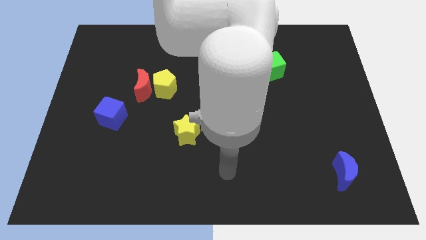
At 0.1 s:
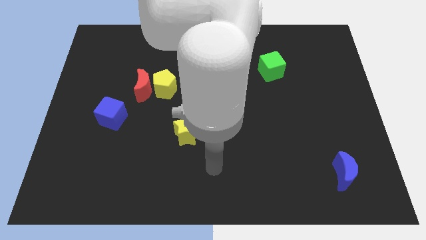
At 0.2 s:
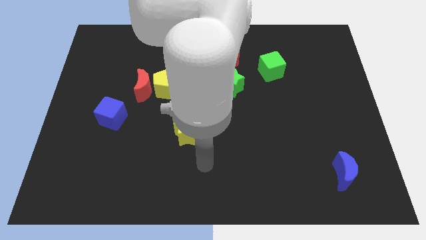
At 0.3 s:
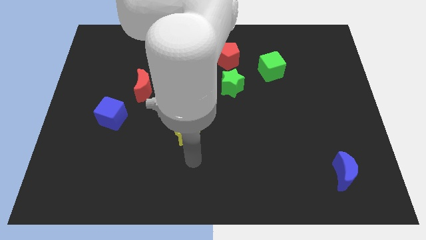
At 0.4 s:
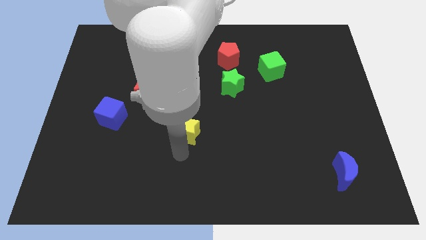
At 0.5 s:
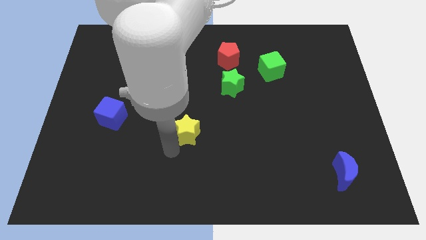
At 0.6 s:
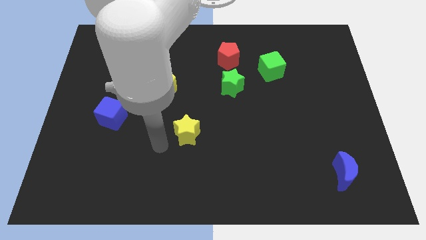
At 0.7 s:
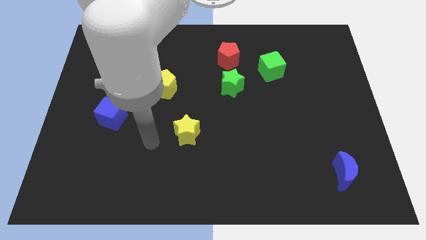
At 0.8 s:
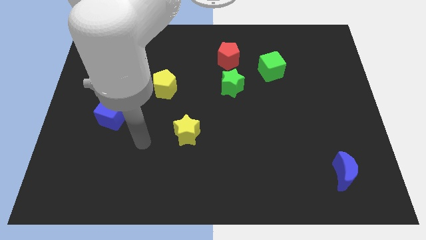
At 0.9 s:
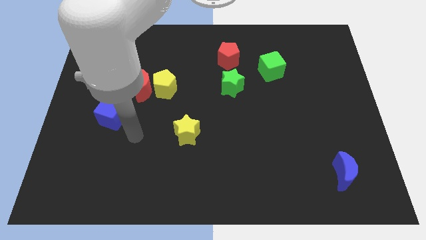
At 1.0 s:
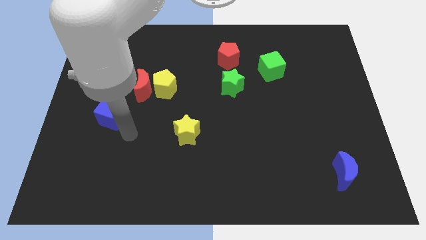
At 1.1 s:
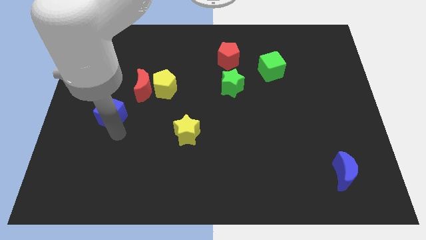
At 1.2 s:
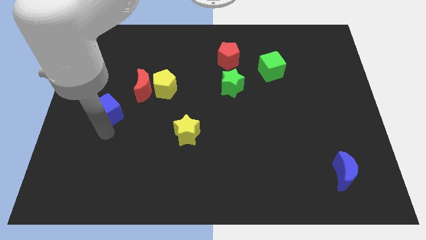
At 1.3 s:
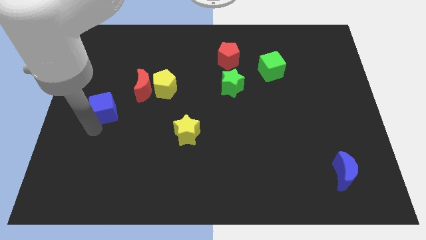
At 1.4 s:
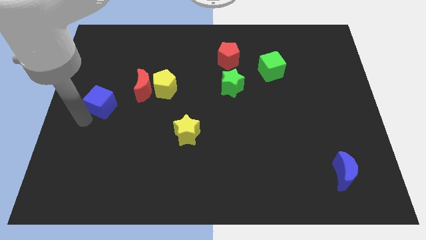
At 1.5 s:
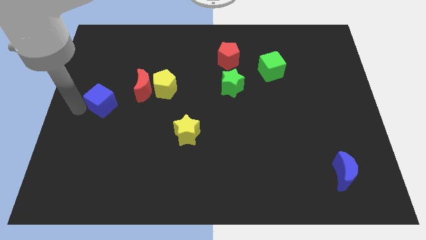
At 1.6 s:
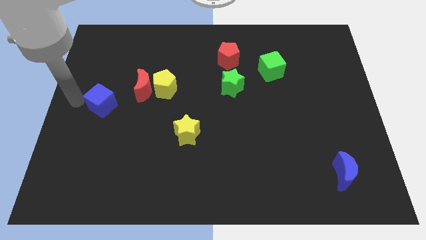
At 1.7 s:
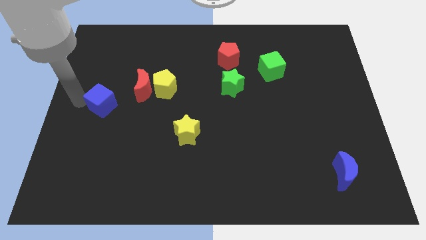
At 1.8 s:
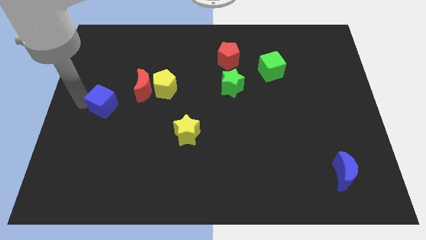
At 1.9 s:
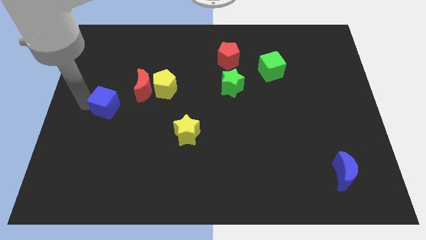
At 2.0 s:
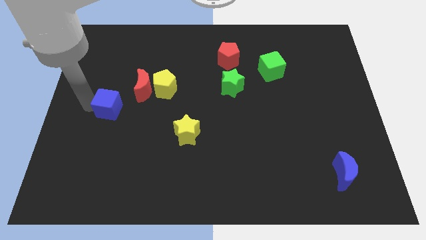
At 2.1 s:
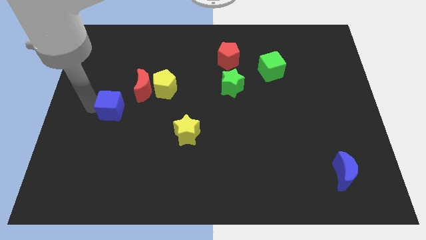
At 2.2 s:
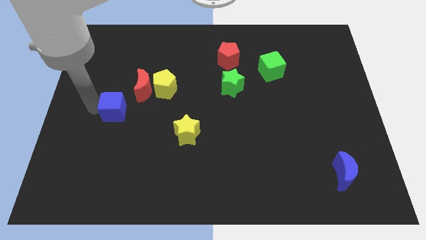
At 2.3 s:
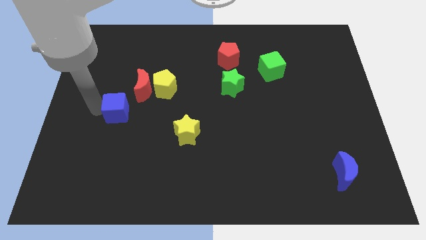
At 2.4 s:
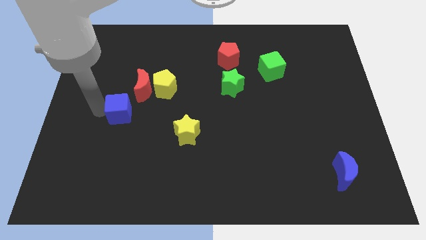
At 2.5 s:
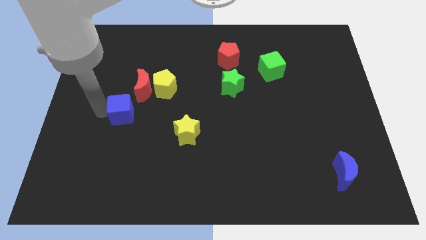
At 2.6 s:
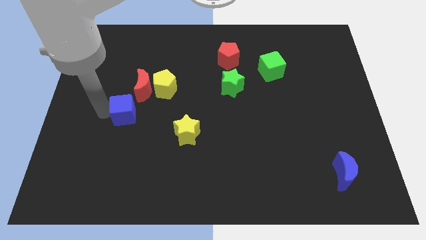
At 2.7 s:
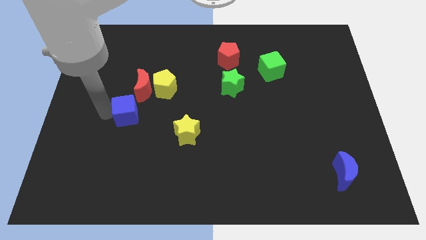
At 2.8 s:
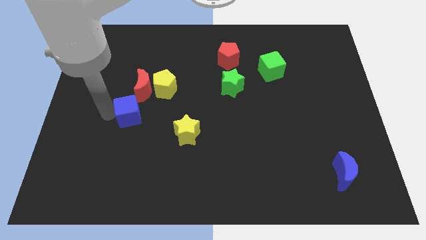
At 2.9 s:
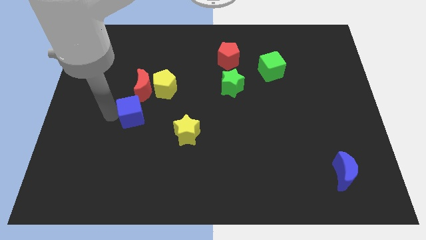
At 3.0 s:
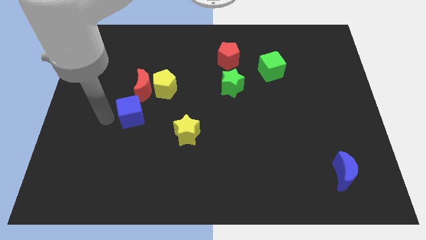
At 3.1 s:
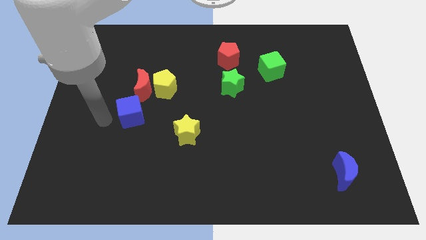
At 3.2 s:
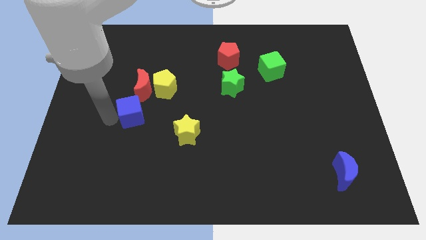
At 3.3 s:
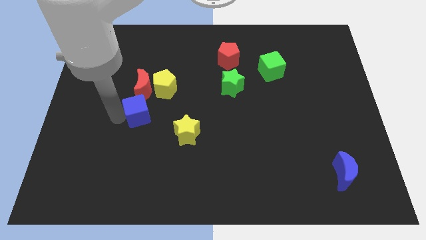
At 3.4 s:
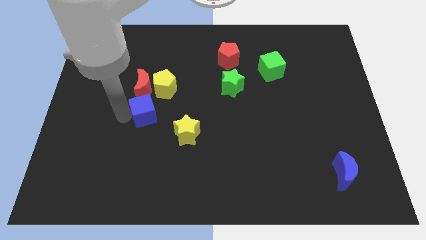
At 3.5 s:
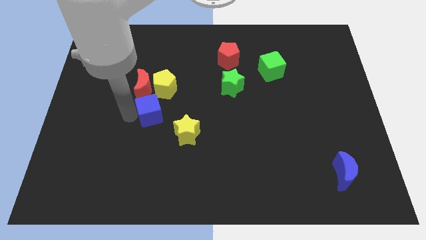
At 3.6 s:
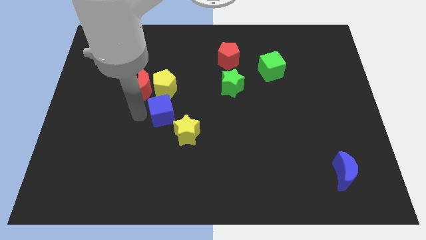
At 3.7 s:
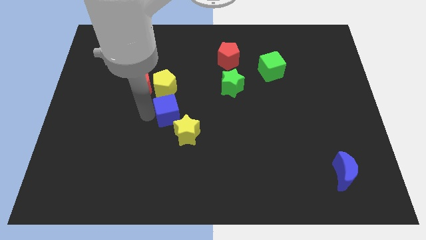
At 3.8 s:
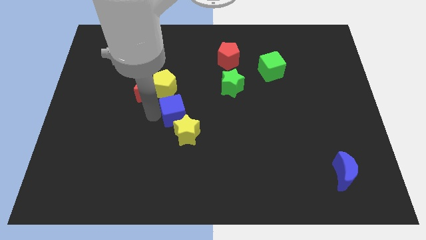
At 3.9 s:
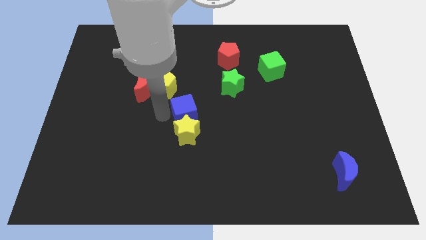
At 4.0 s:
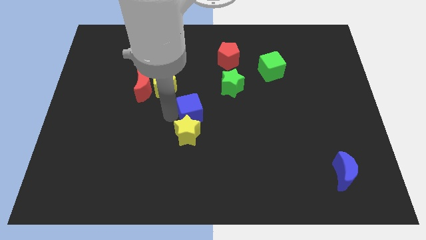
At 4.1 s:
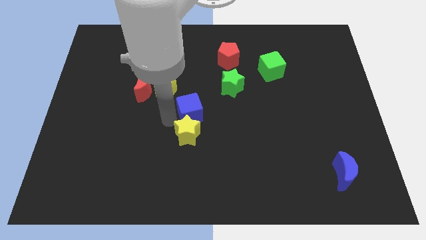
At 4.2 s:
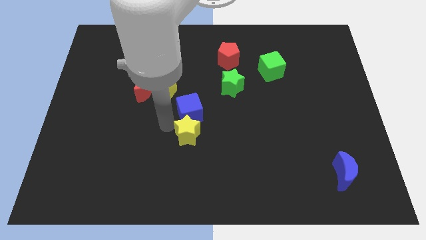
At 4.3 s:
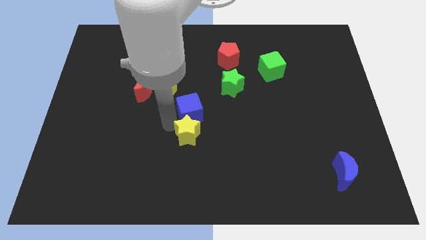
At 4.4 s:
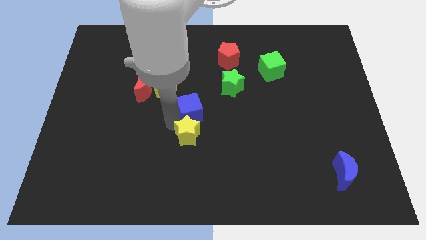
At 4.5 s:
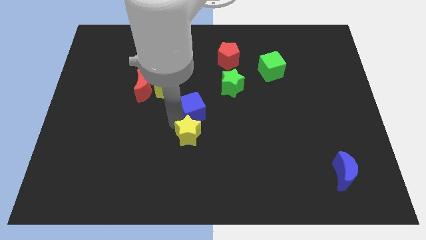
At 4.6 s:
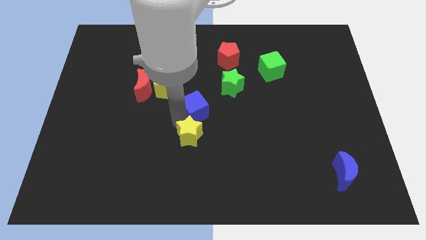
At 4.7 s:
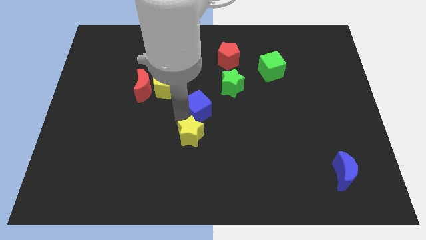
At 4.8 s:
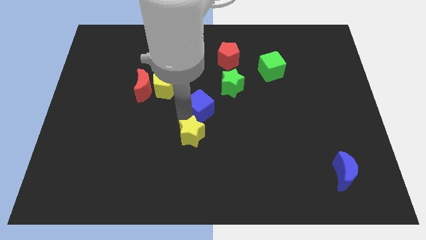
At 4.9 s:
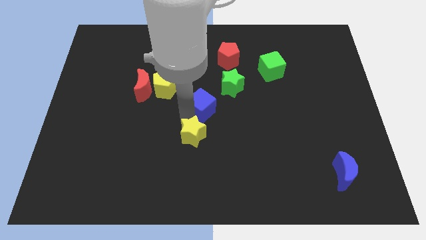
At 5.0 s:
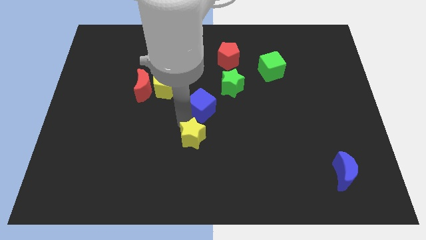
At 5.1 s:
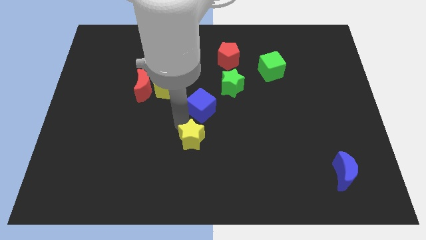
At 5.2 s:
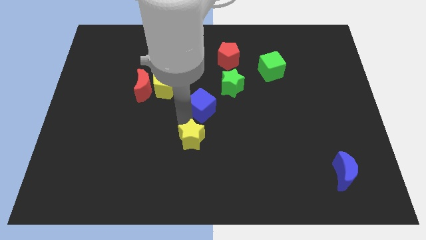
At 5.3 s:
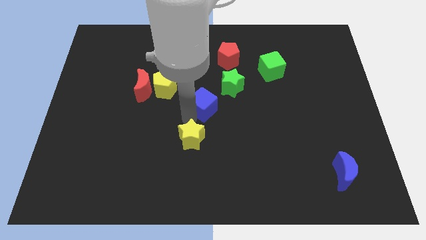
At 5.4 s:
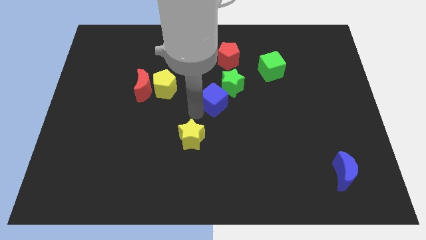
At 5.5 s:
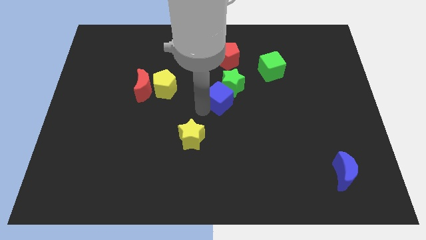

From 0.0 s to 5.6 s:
put the blue cube close to the green star
